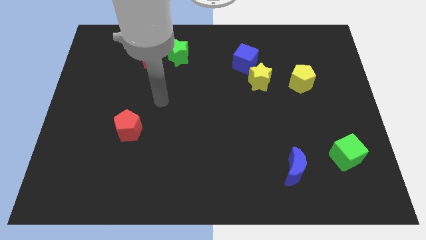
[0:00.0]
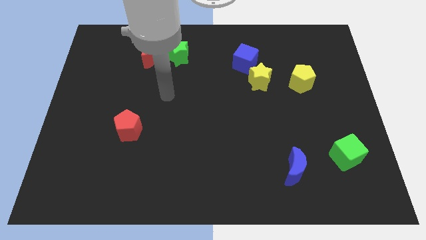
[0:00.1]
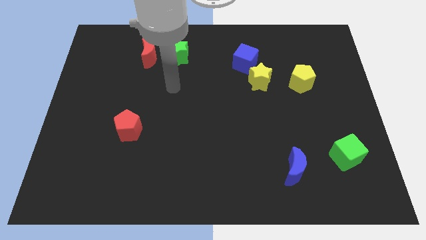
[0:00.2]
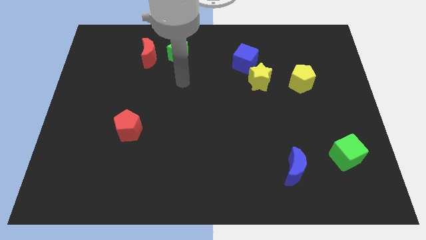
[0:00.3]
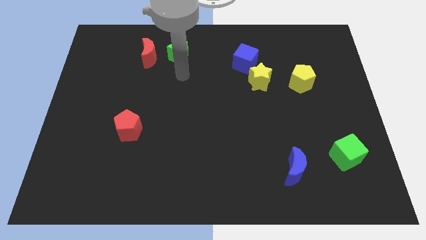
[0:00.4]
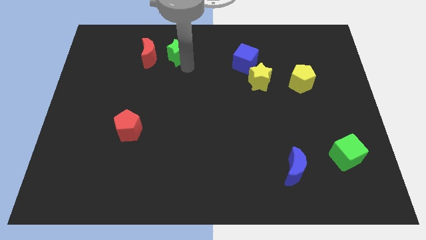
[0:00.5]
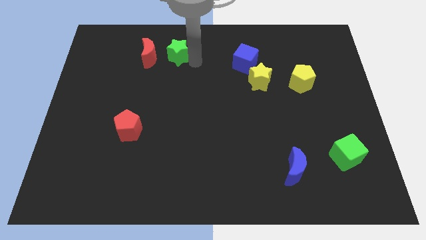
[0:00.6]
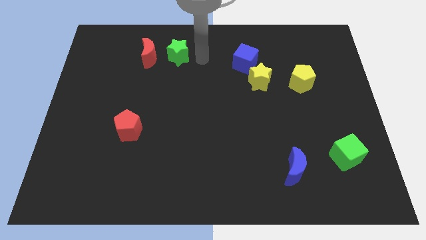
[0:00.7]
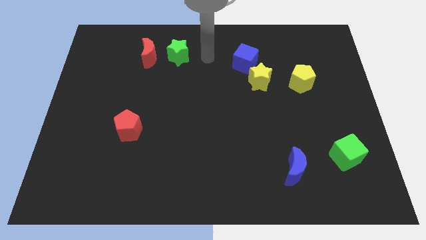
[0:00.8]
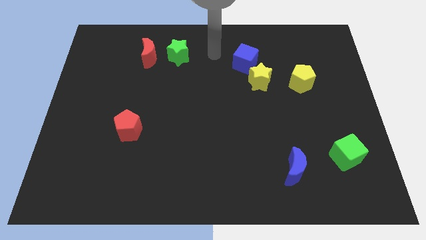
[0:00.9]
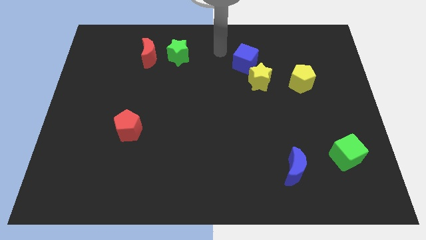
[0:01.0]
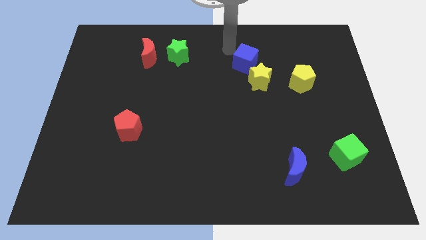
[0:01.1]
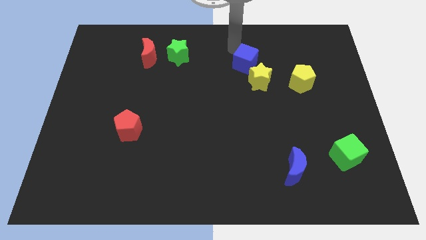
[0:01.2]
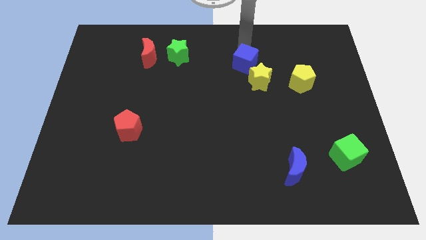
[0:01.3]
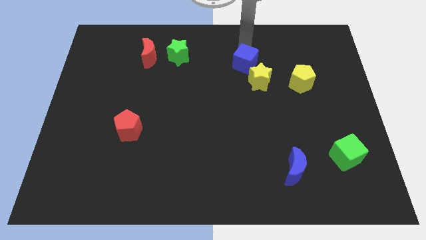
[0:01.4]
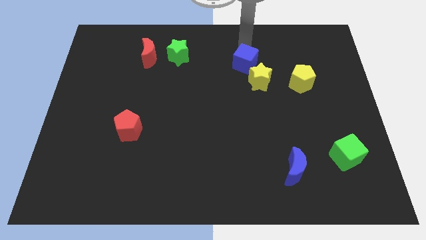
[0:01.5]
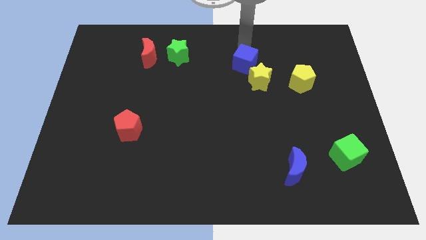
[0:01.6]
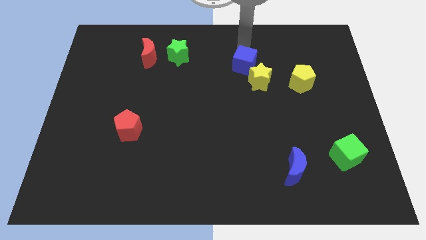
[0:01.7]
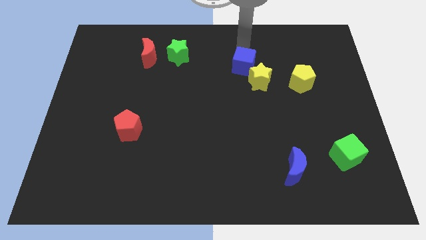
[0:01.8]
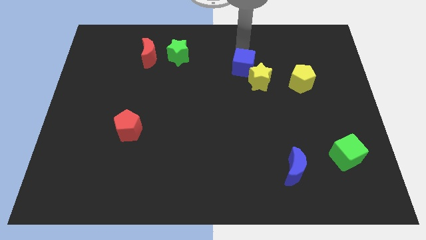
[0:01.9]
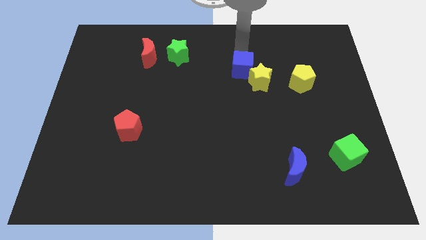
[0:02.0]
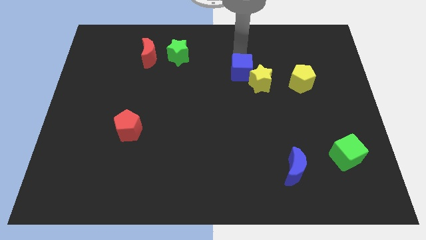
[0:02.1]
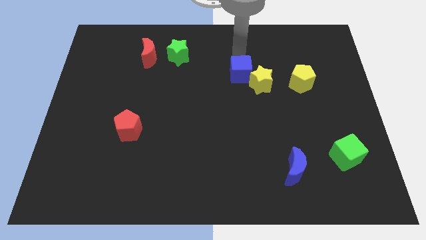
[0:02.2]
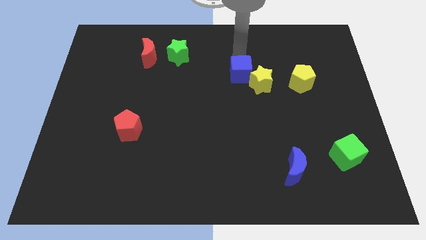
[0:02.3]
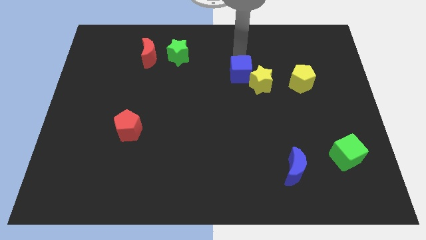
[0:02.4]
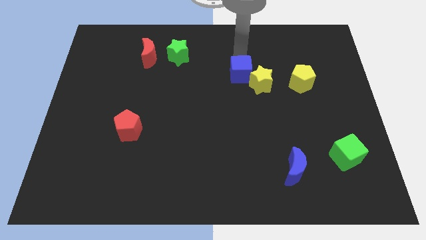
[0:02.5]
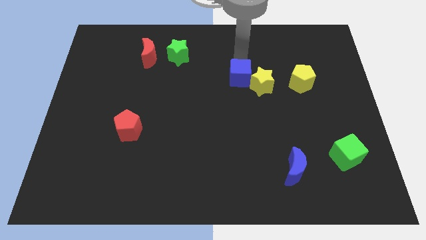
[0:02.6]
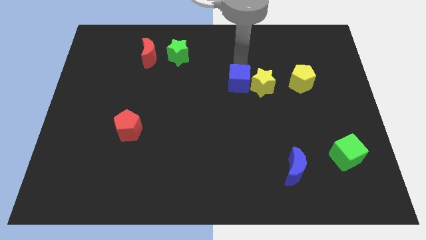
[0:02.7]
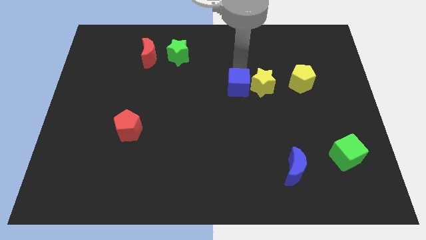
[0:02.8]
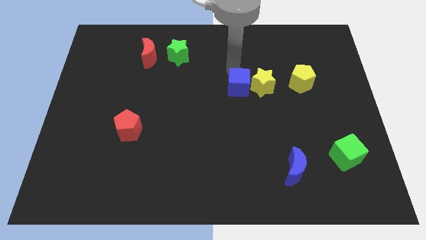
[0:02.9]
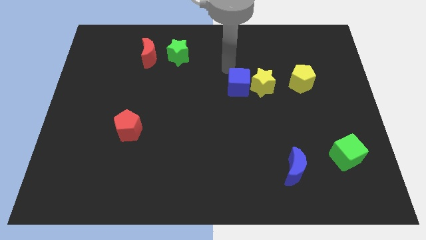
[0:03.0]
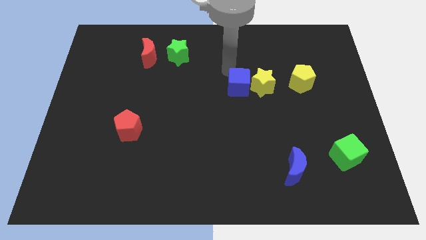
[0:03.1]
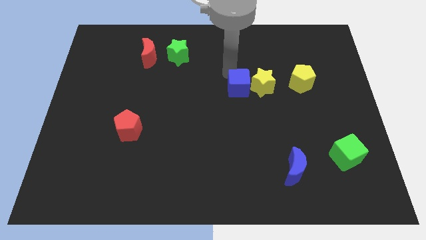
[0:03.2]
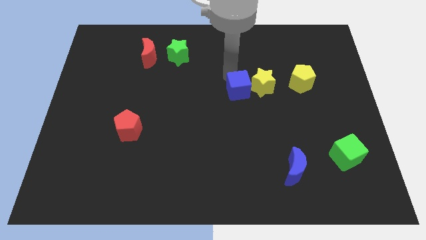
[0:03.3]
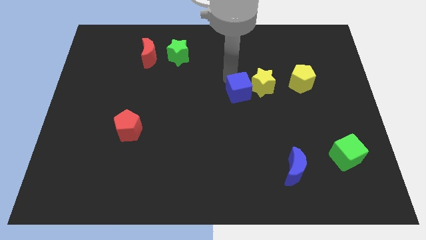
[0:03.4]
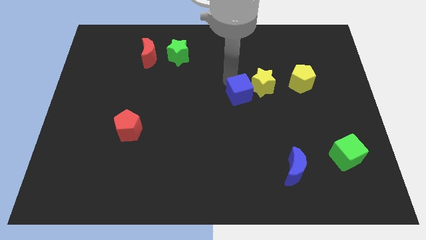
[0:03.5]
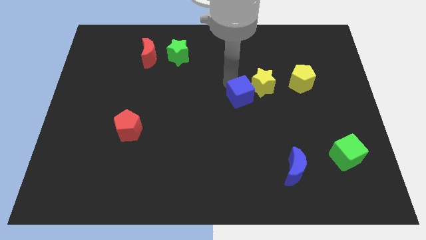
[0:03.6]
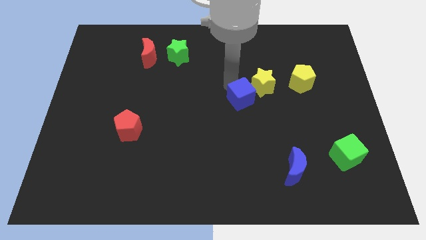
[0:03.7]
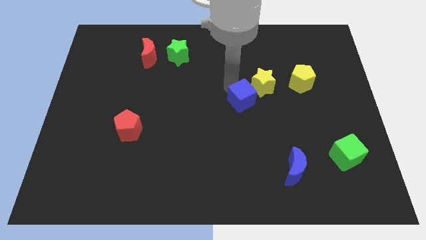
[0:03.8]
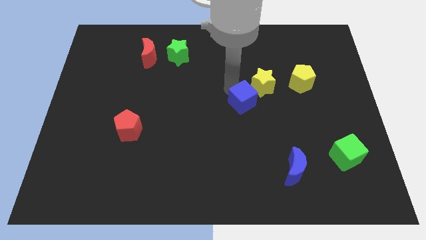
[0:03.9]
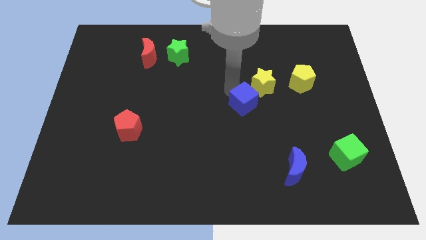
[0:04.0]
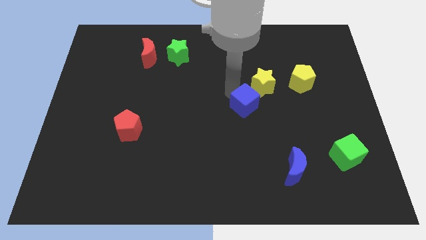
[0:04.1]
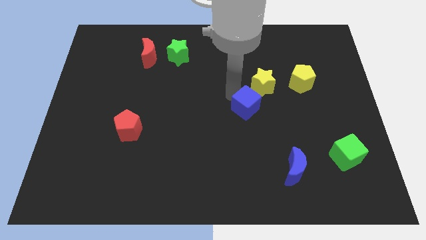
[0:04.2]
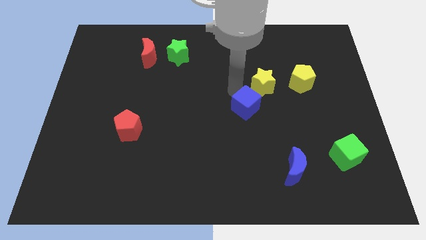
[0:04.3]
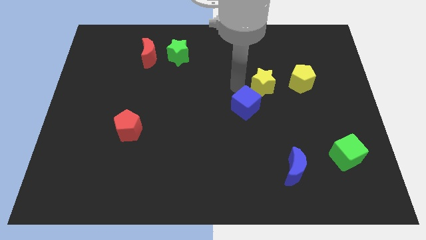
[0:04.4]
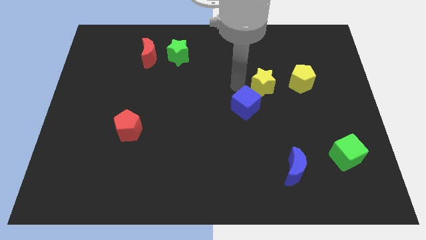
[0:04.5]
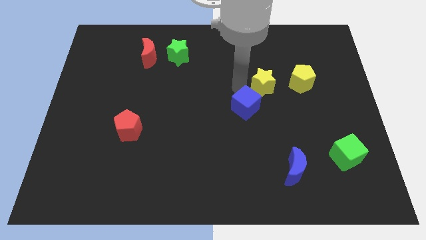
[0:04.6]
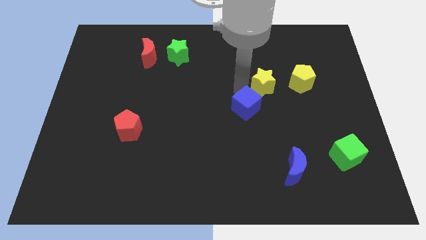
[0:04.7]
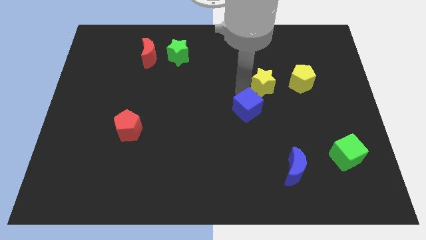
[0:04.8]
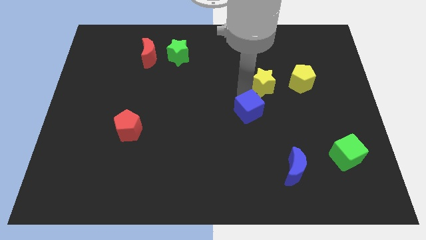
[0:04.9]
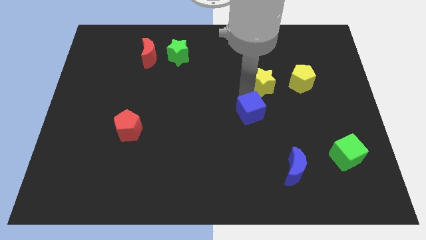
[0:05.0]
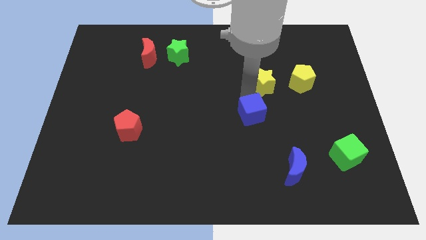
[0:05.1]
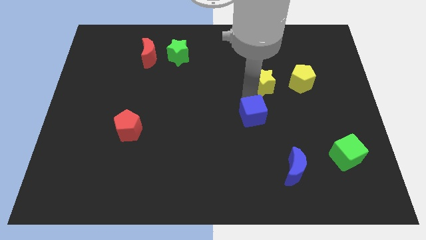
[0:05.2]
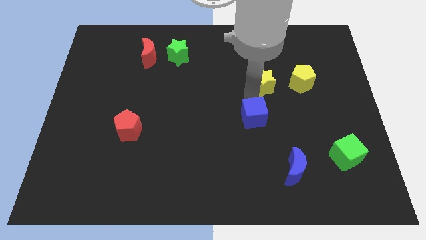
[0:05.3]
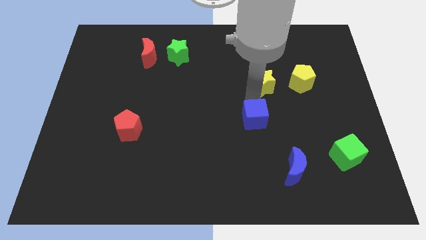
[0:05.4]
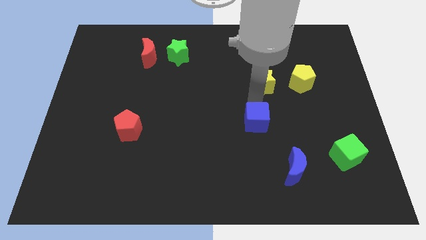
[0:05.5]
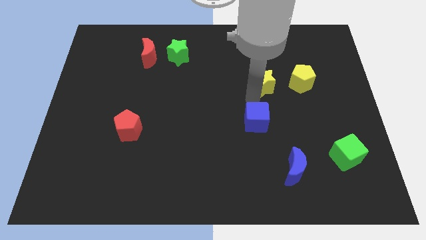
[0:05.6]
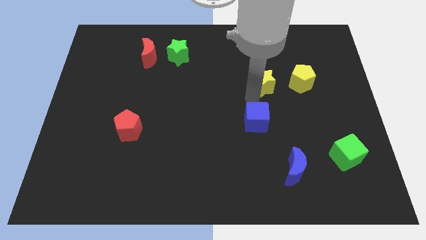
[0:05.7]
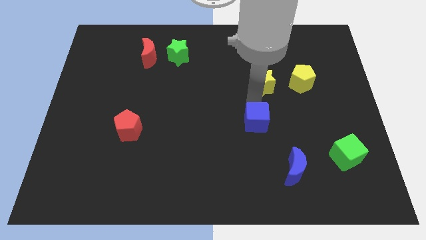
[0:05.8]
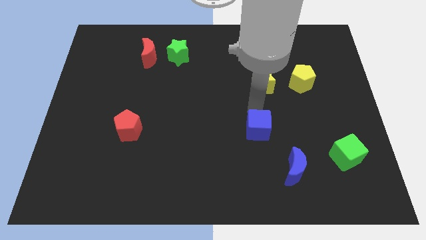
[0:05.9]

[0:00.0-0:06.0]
push the blue cube down

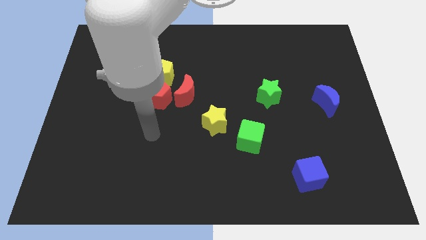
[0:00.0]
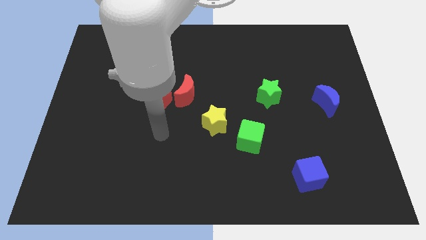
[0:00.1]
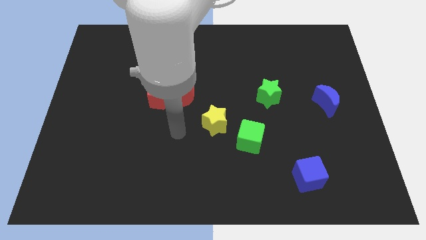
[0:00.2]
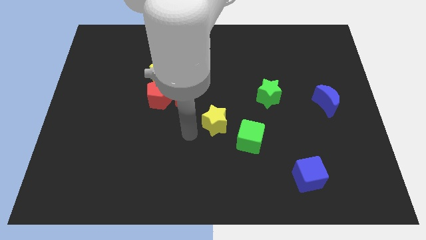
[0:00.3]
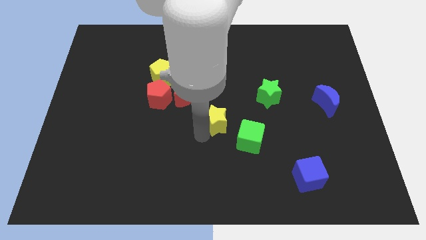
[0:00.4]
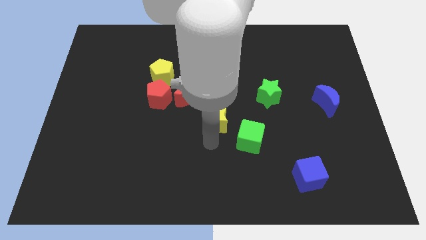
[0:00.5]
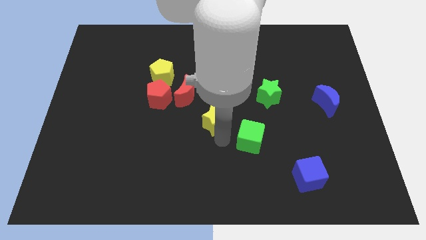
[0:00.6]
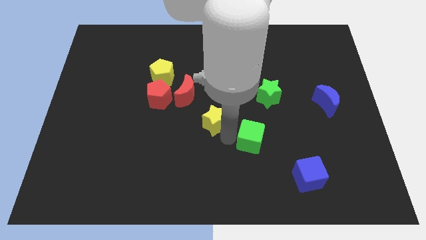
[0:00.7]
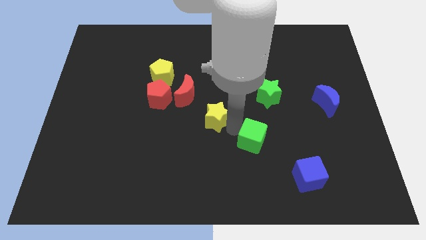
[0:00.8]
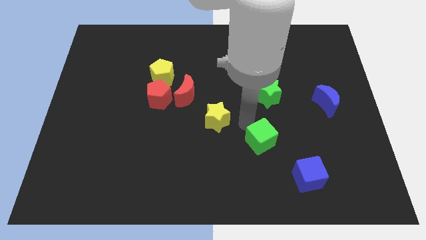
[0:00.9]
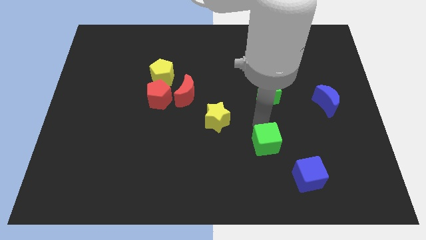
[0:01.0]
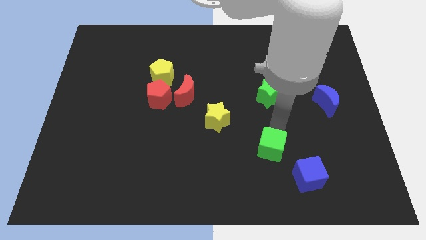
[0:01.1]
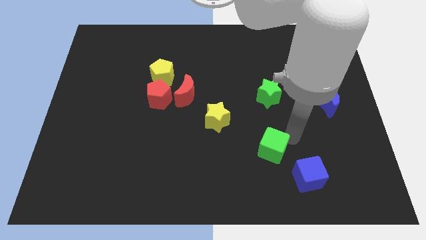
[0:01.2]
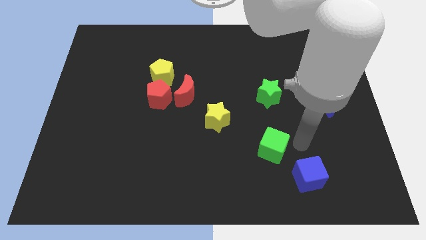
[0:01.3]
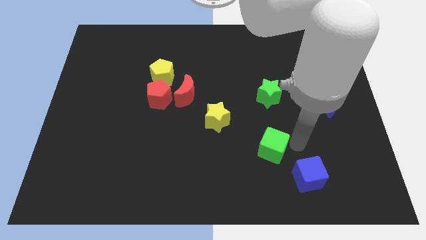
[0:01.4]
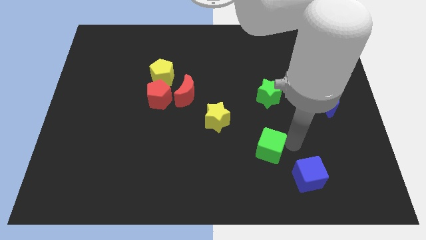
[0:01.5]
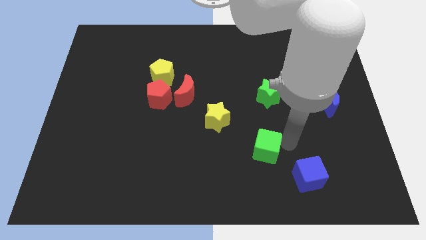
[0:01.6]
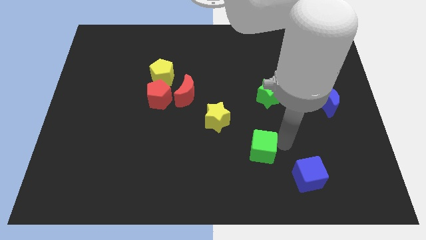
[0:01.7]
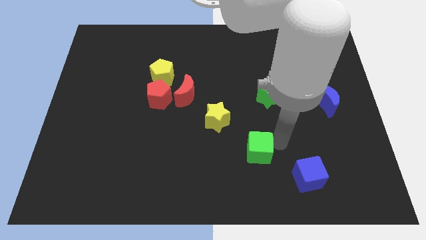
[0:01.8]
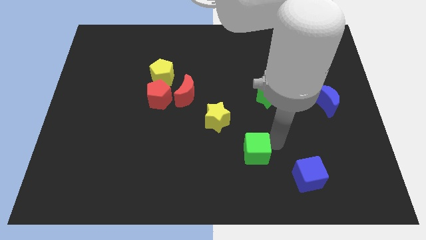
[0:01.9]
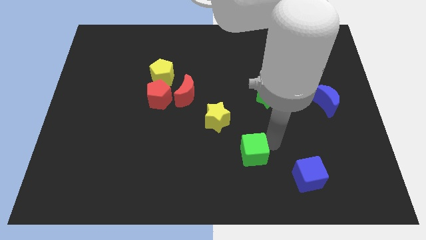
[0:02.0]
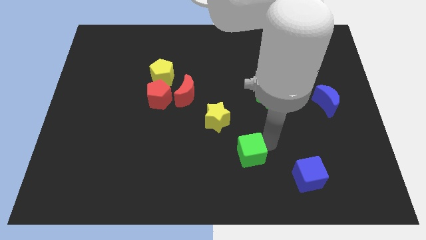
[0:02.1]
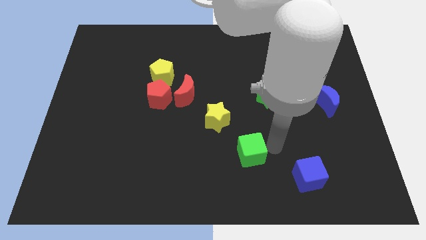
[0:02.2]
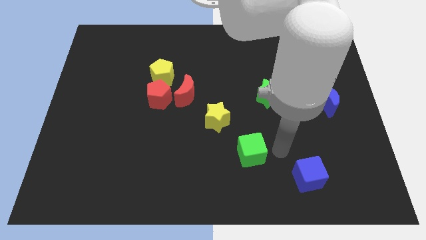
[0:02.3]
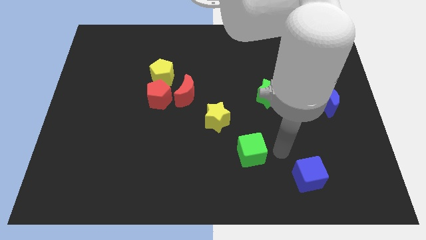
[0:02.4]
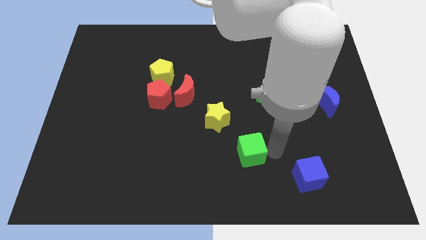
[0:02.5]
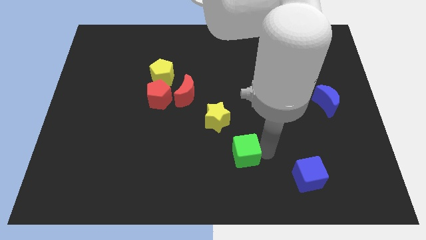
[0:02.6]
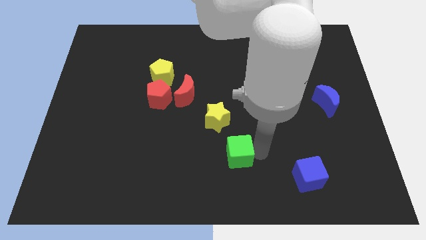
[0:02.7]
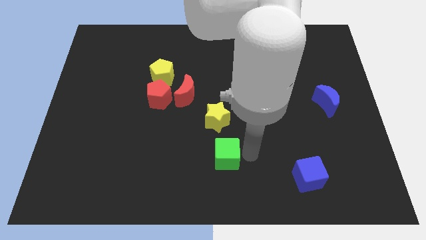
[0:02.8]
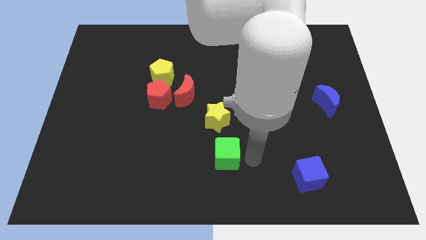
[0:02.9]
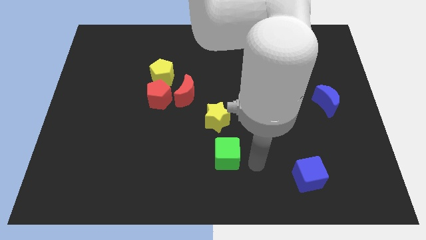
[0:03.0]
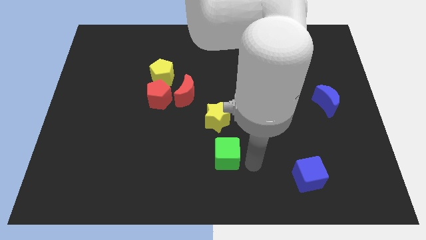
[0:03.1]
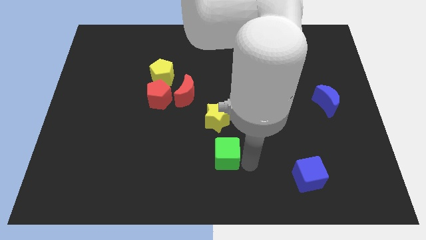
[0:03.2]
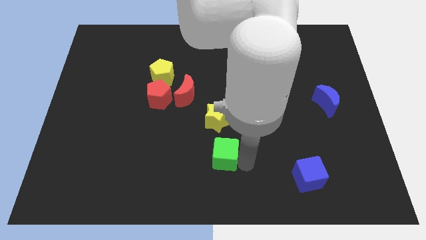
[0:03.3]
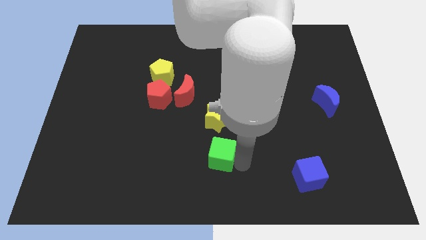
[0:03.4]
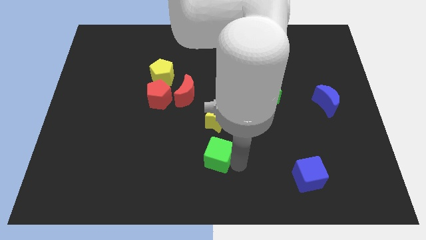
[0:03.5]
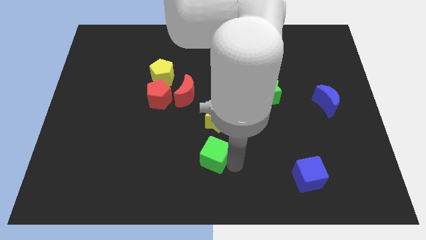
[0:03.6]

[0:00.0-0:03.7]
slightly push the green cube to the left
